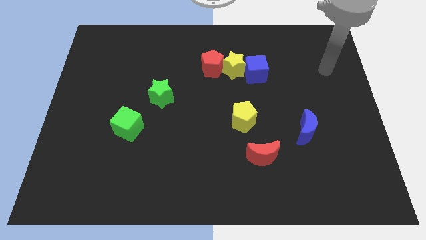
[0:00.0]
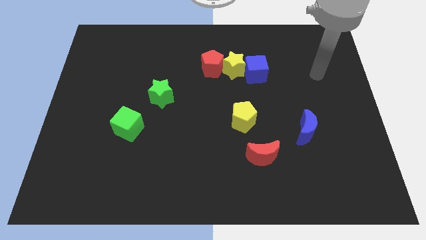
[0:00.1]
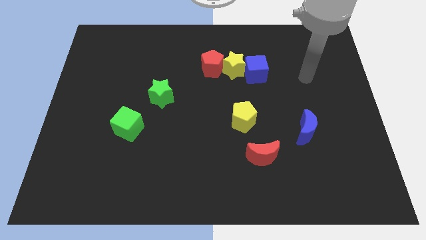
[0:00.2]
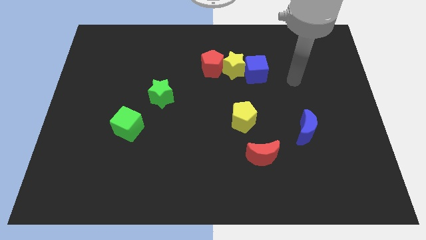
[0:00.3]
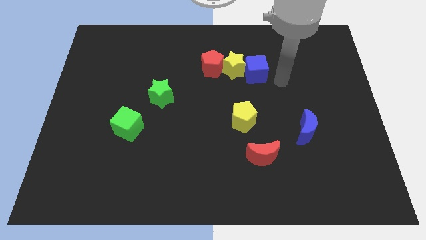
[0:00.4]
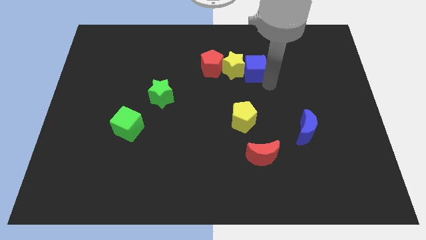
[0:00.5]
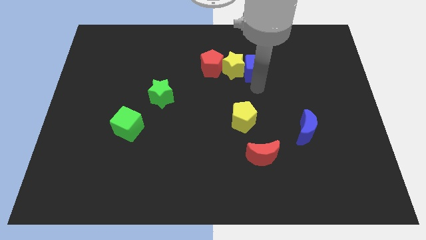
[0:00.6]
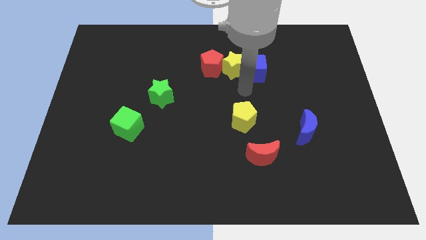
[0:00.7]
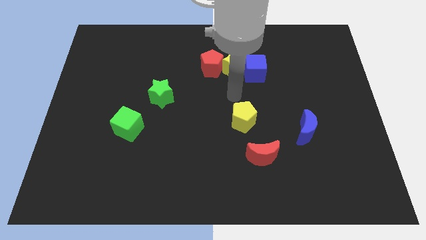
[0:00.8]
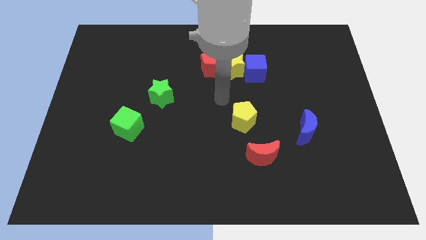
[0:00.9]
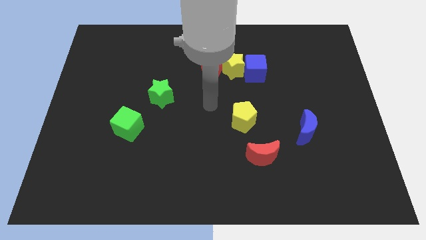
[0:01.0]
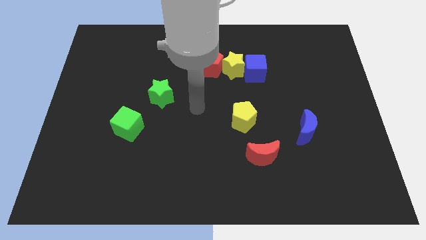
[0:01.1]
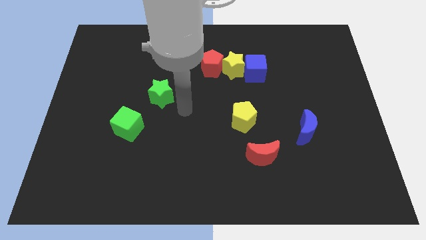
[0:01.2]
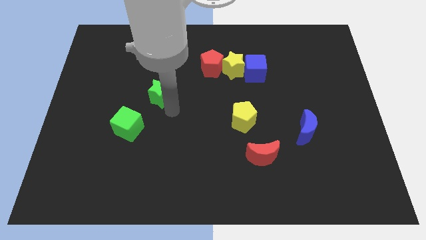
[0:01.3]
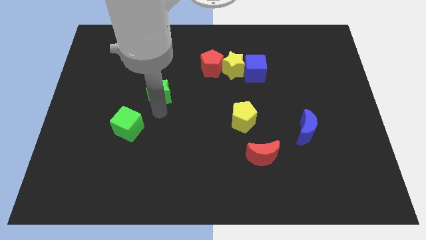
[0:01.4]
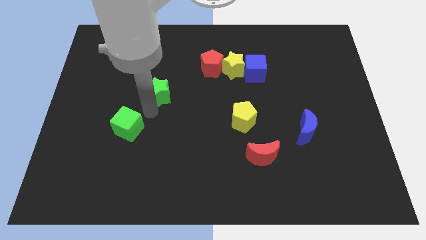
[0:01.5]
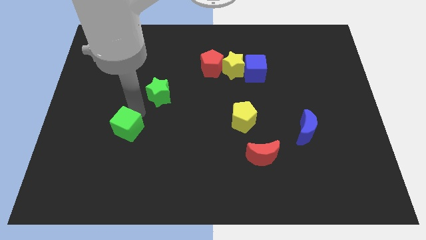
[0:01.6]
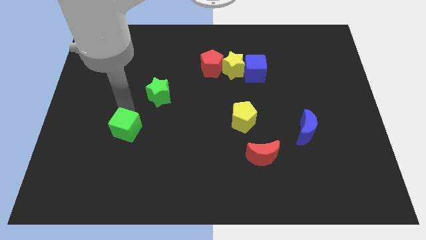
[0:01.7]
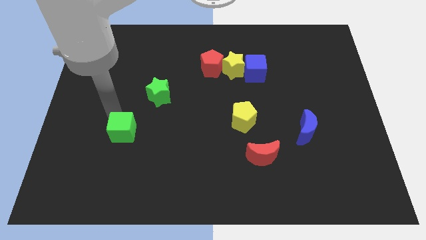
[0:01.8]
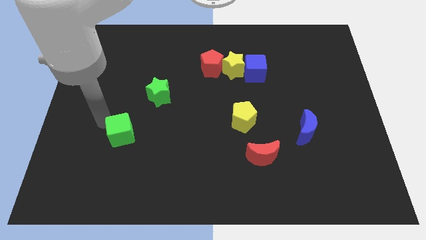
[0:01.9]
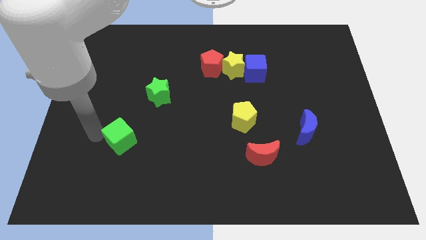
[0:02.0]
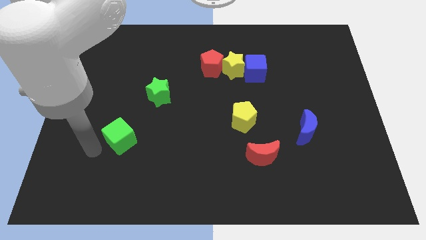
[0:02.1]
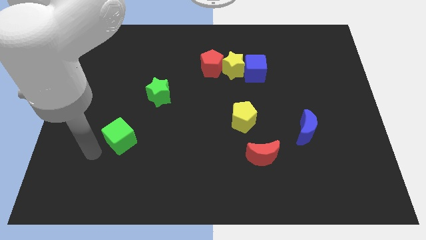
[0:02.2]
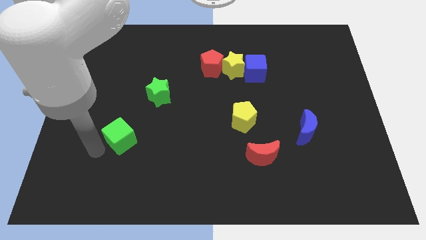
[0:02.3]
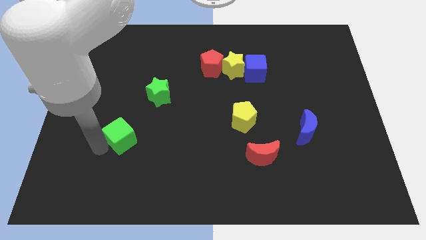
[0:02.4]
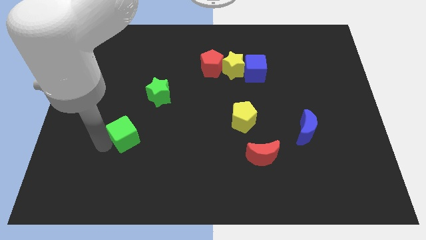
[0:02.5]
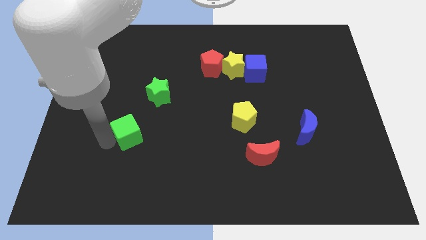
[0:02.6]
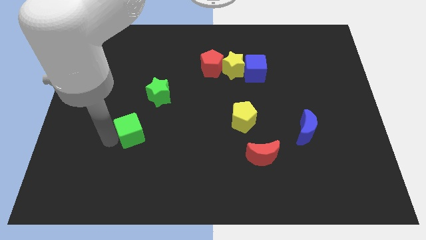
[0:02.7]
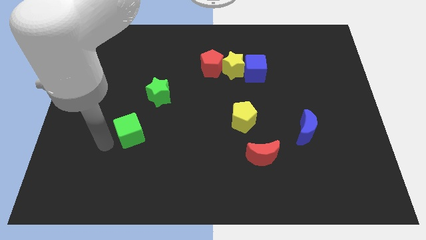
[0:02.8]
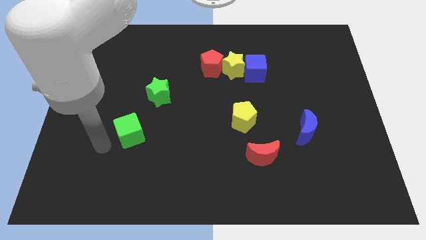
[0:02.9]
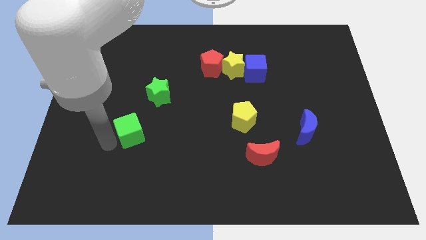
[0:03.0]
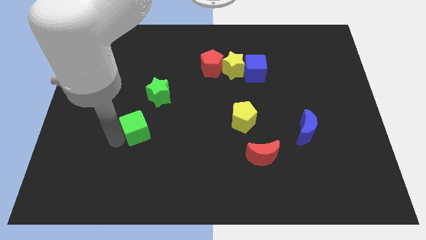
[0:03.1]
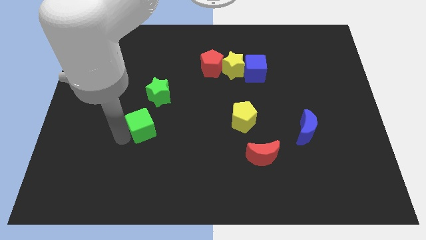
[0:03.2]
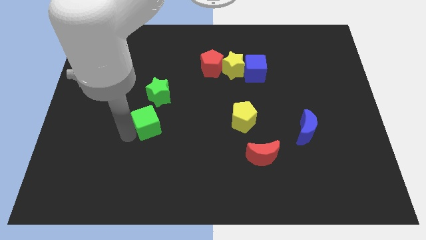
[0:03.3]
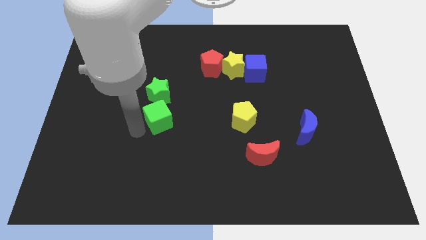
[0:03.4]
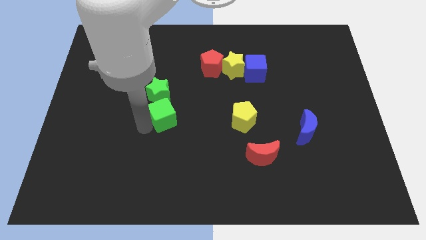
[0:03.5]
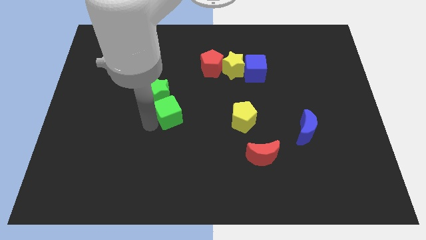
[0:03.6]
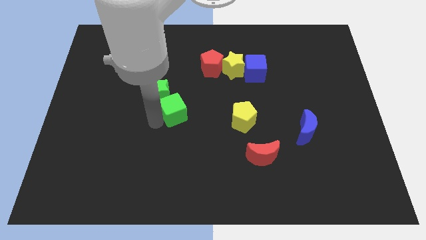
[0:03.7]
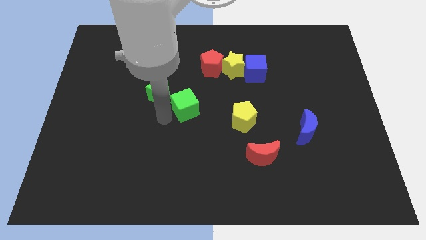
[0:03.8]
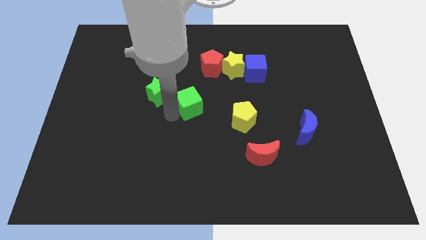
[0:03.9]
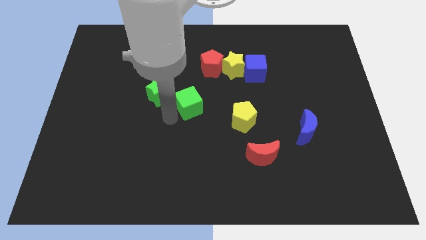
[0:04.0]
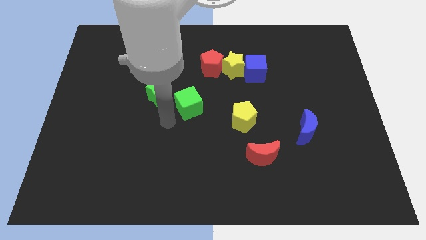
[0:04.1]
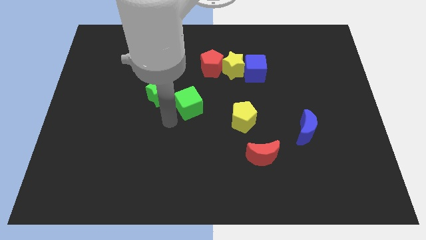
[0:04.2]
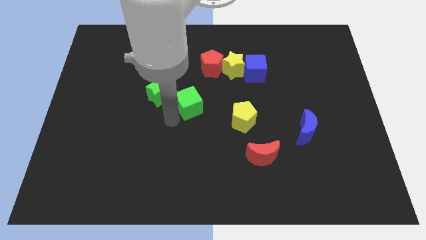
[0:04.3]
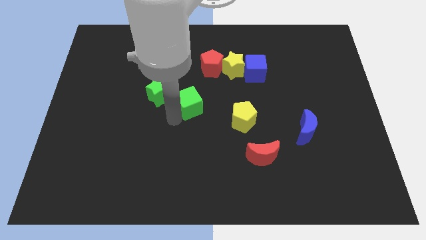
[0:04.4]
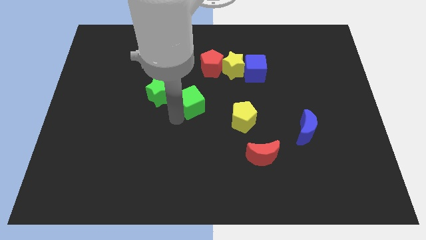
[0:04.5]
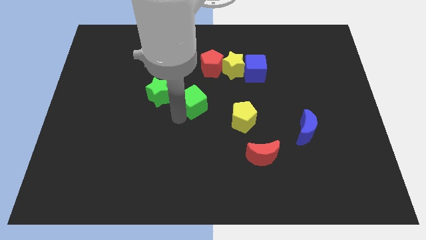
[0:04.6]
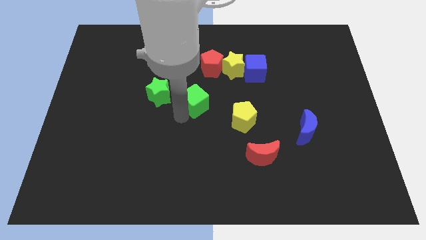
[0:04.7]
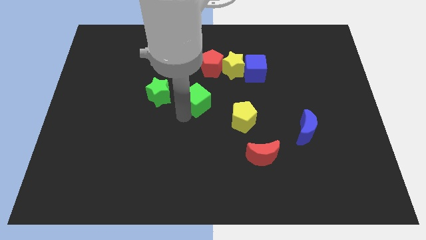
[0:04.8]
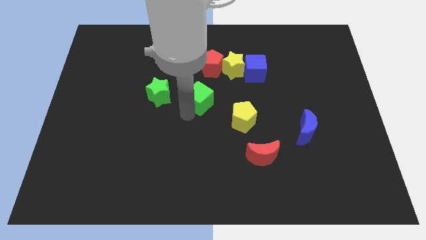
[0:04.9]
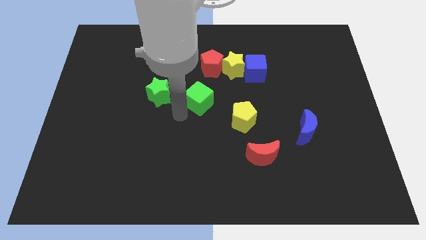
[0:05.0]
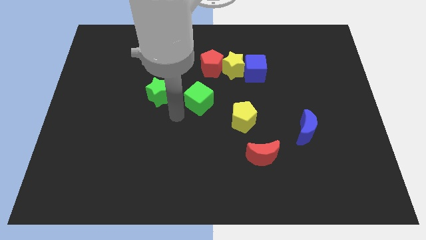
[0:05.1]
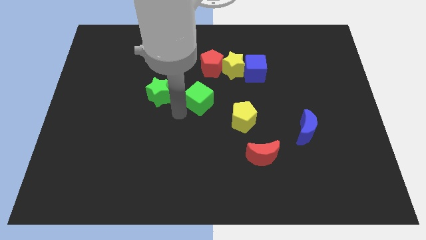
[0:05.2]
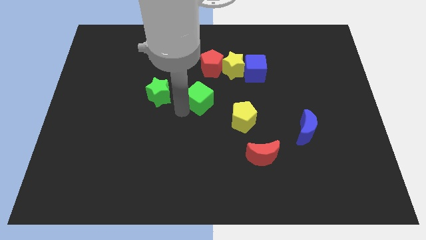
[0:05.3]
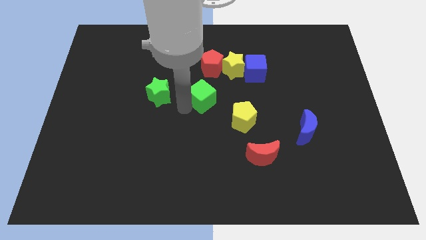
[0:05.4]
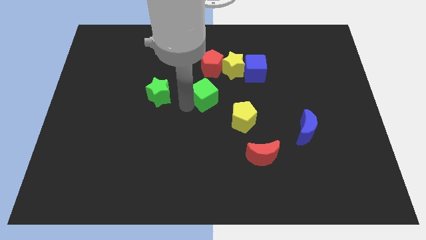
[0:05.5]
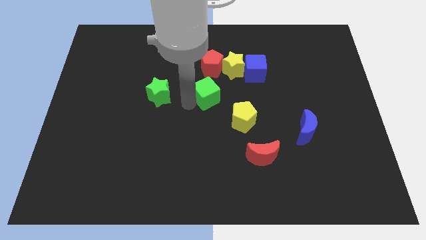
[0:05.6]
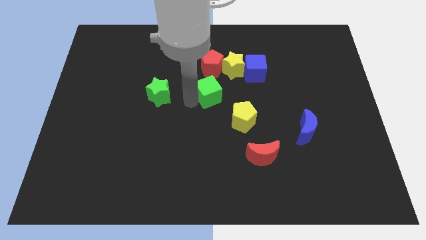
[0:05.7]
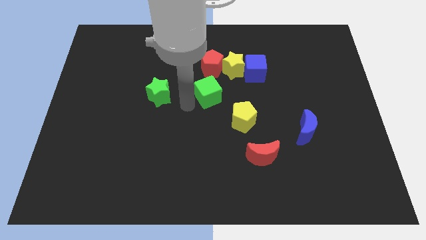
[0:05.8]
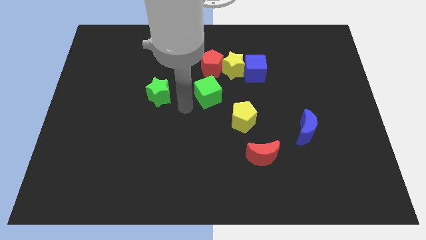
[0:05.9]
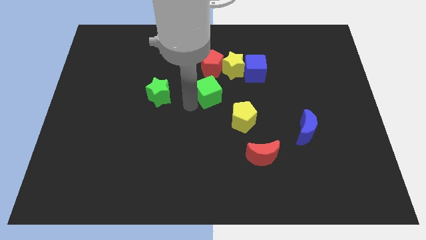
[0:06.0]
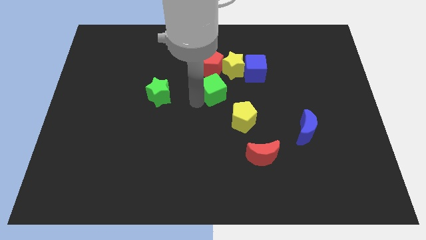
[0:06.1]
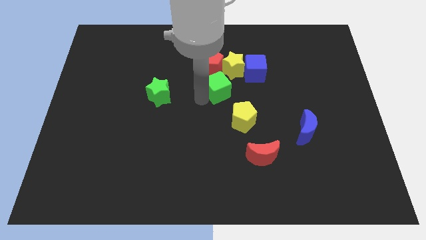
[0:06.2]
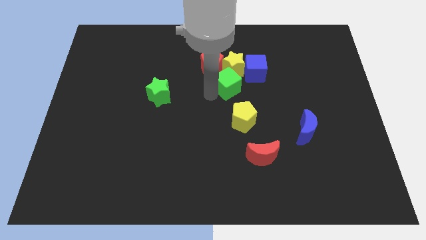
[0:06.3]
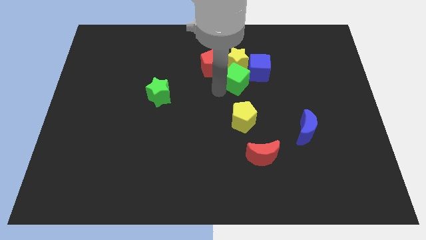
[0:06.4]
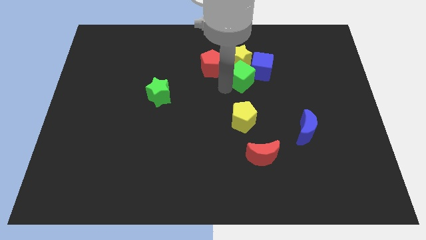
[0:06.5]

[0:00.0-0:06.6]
push the green cube close to the blue cube
